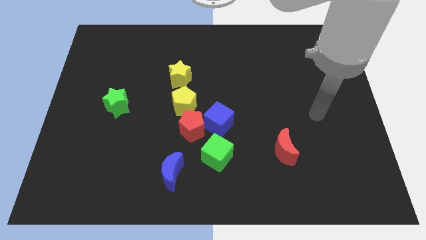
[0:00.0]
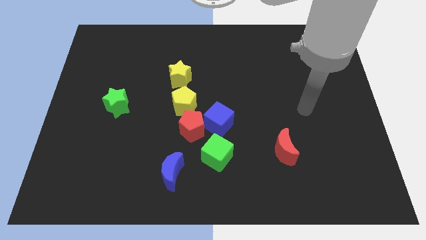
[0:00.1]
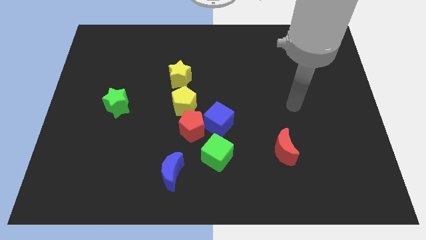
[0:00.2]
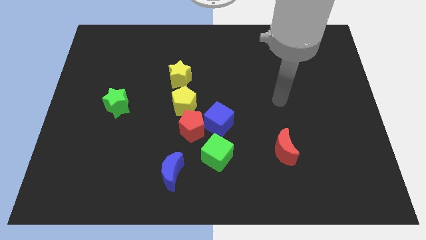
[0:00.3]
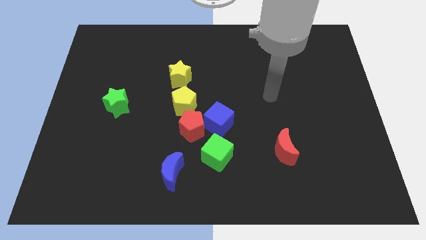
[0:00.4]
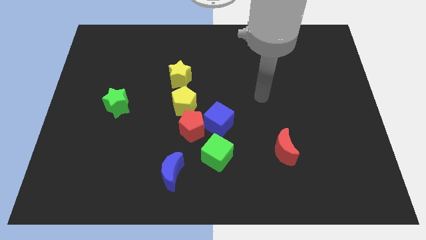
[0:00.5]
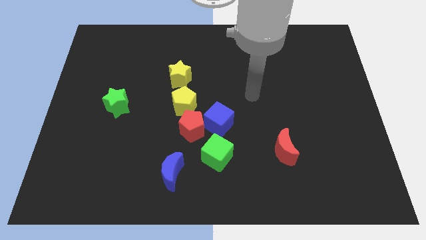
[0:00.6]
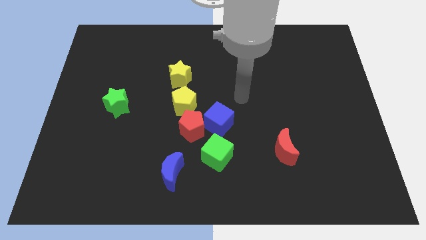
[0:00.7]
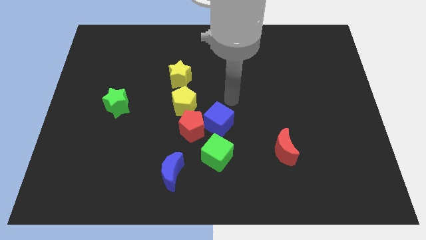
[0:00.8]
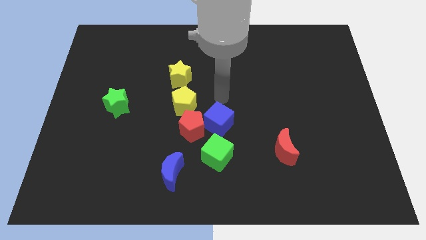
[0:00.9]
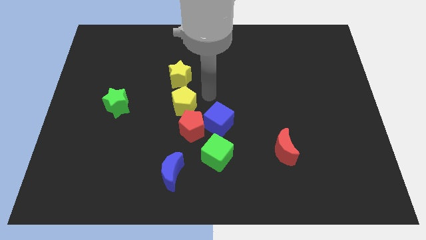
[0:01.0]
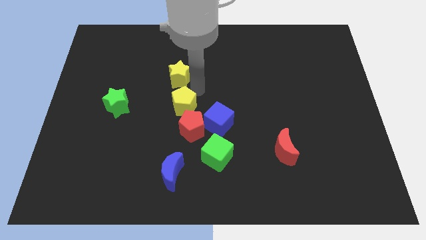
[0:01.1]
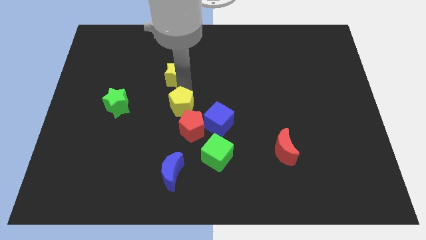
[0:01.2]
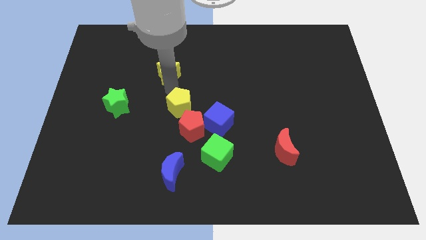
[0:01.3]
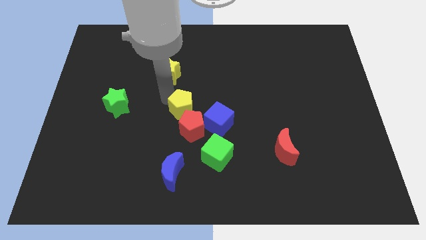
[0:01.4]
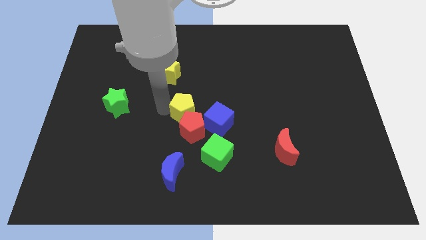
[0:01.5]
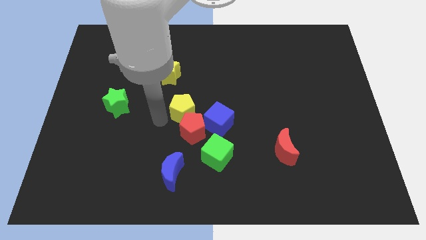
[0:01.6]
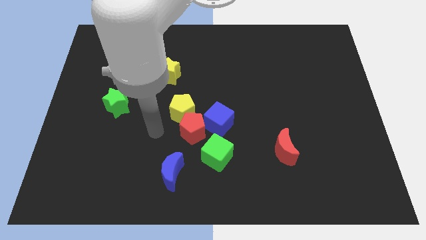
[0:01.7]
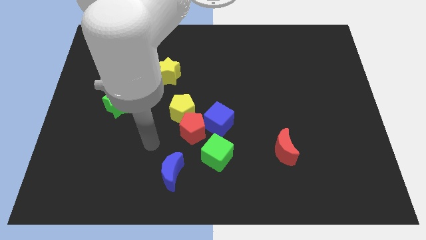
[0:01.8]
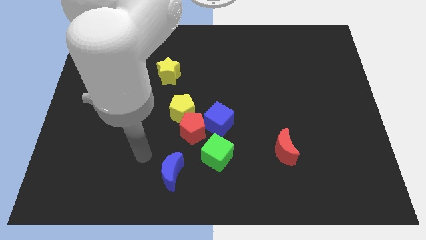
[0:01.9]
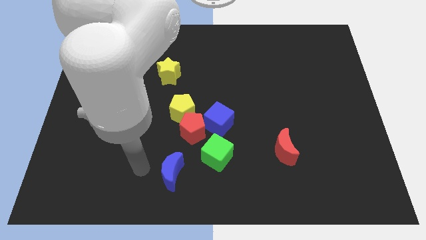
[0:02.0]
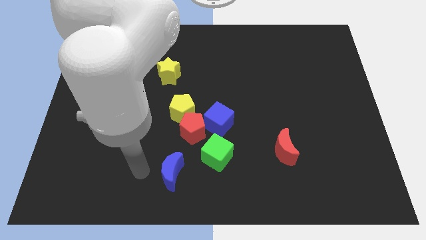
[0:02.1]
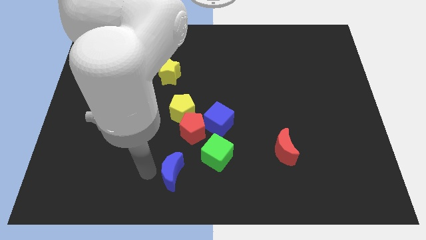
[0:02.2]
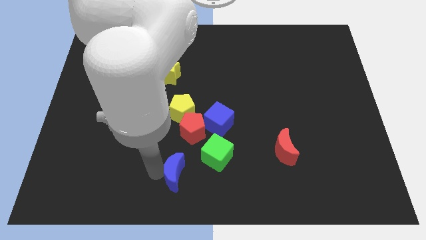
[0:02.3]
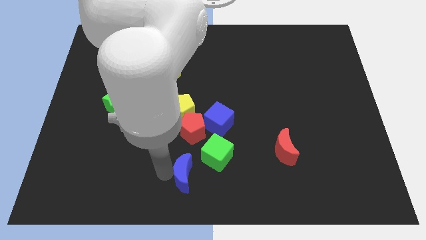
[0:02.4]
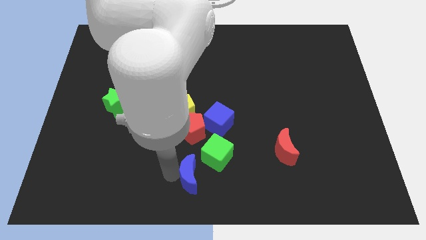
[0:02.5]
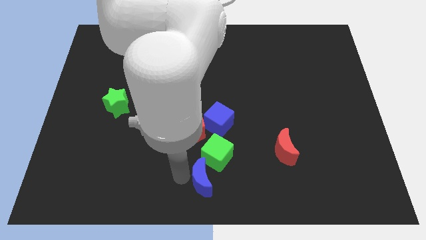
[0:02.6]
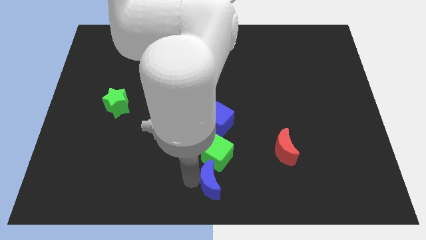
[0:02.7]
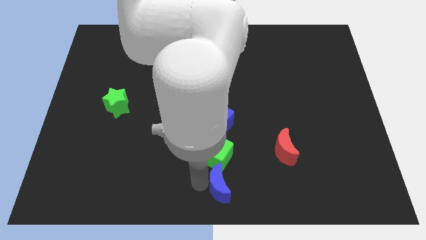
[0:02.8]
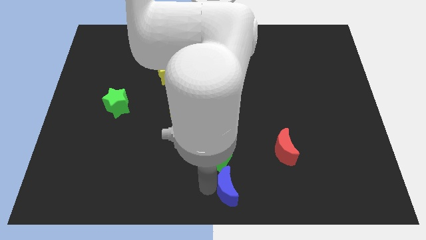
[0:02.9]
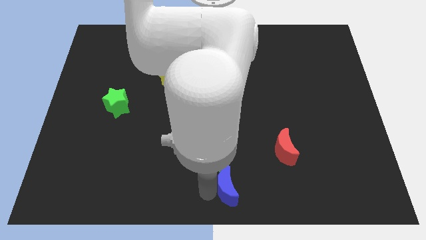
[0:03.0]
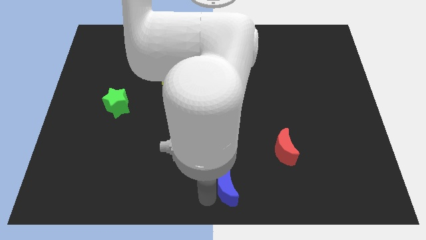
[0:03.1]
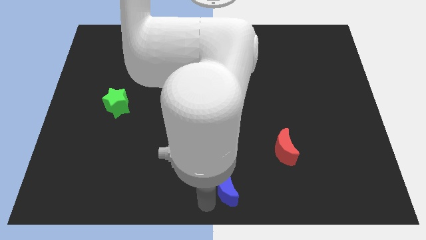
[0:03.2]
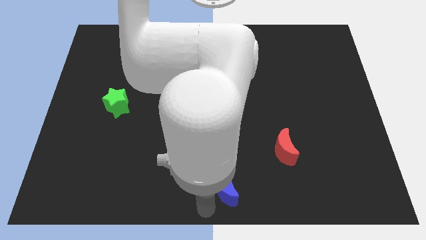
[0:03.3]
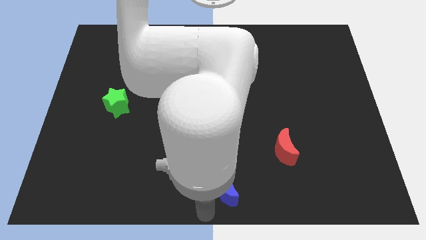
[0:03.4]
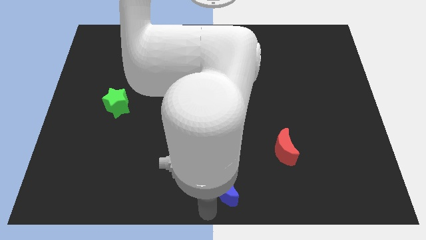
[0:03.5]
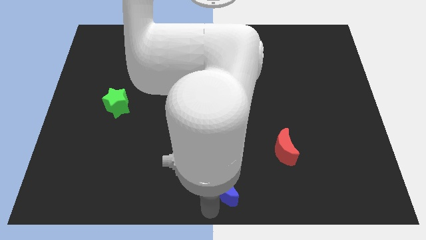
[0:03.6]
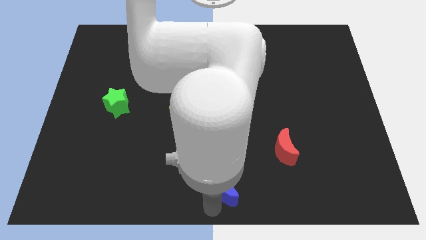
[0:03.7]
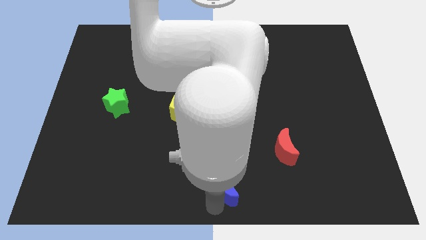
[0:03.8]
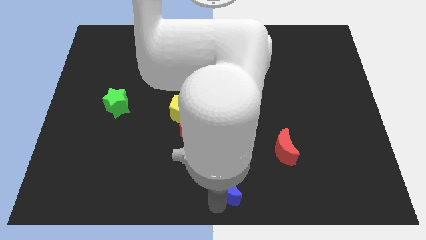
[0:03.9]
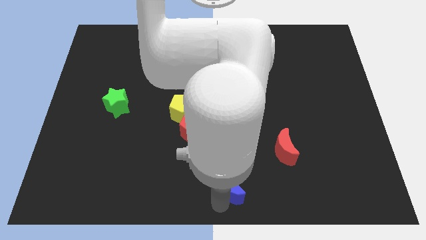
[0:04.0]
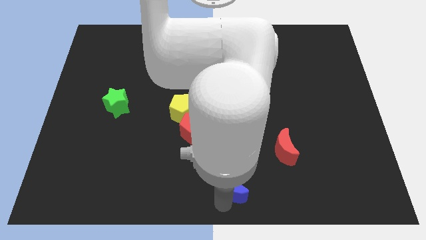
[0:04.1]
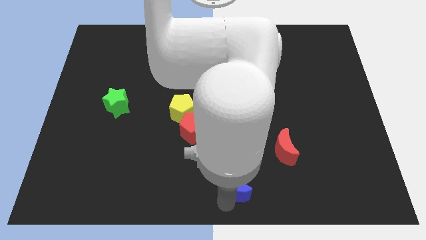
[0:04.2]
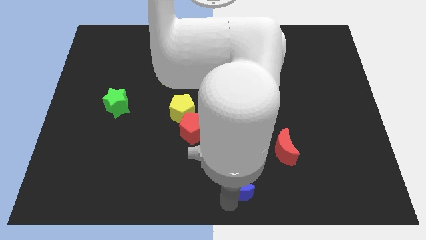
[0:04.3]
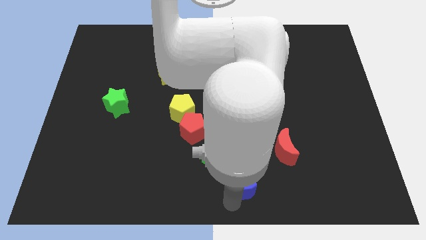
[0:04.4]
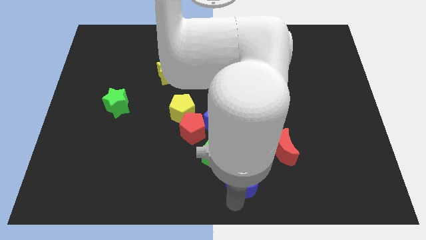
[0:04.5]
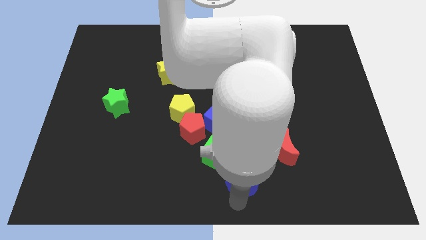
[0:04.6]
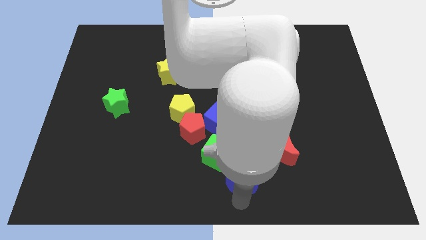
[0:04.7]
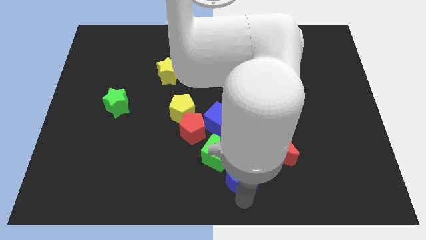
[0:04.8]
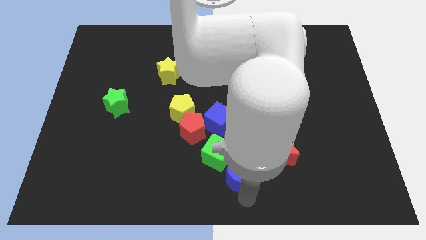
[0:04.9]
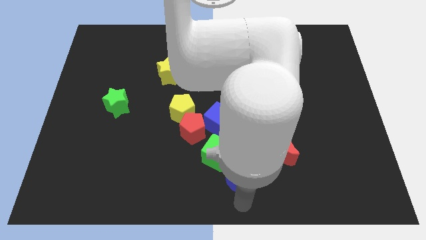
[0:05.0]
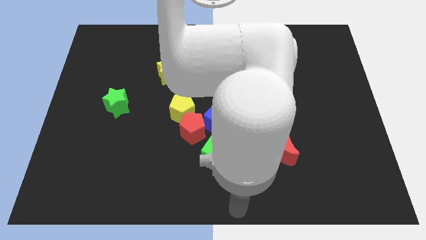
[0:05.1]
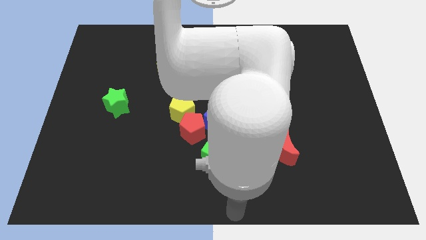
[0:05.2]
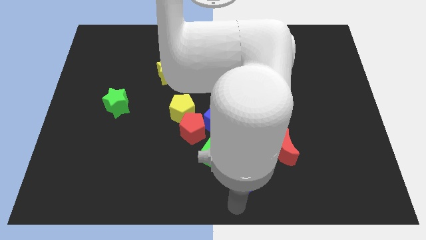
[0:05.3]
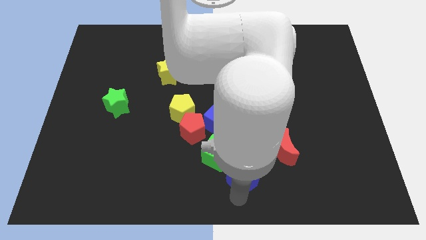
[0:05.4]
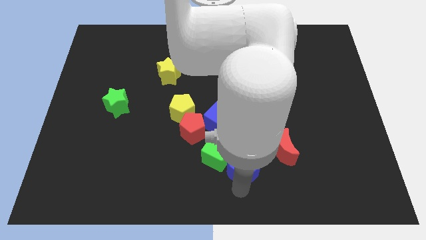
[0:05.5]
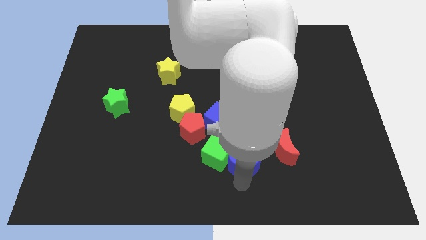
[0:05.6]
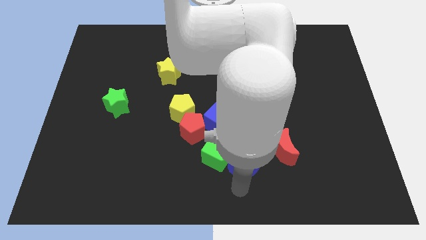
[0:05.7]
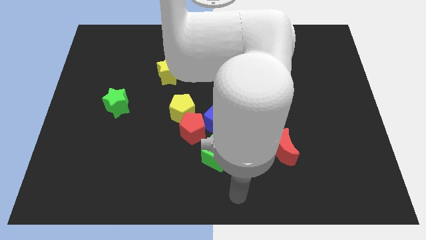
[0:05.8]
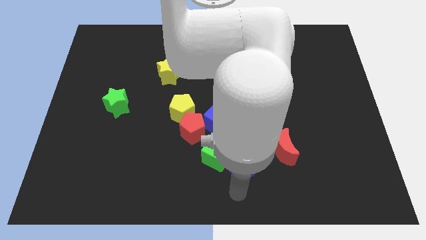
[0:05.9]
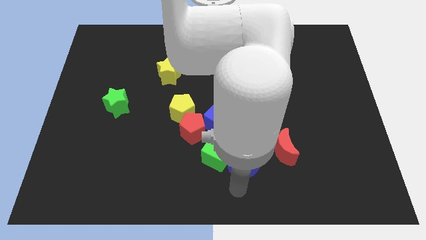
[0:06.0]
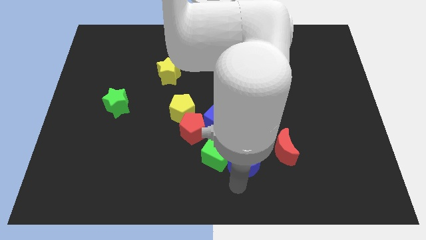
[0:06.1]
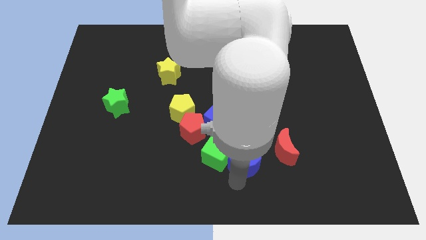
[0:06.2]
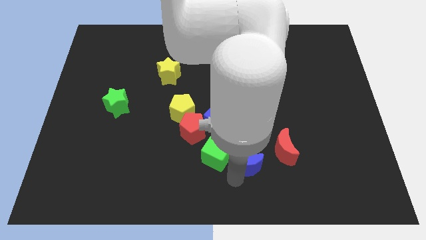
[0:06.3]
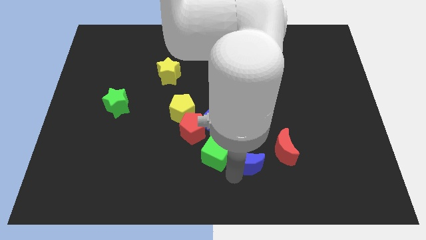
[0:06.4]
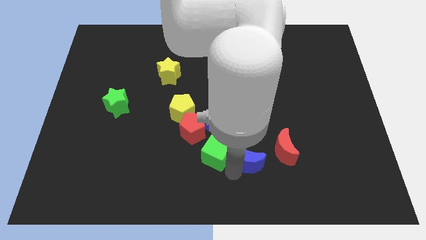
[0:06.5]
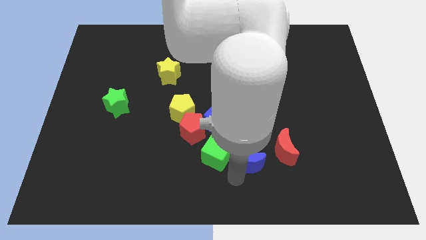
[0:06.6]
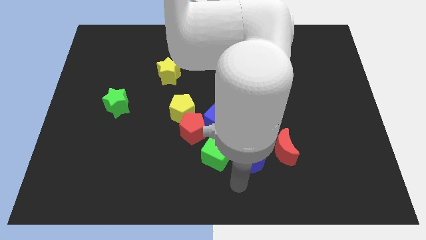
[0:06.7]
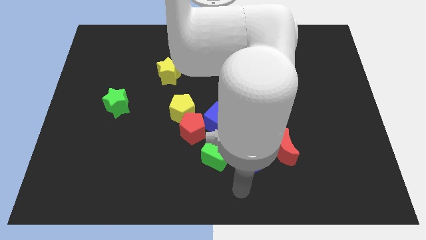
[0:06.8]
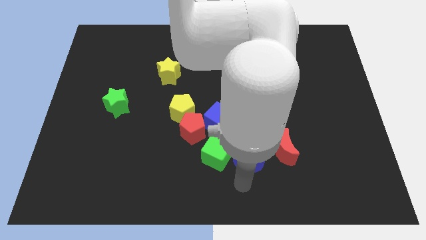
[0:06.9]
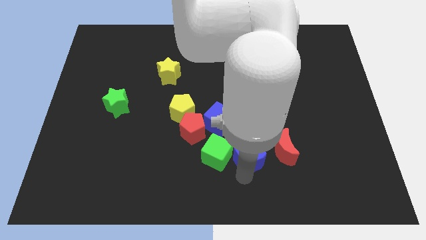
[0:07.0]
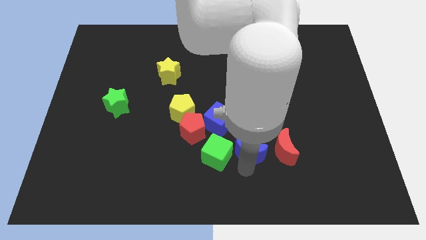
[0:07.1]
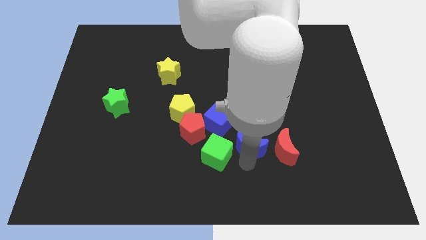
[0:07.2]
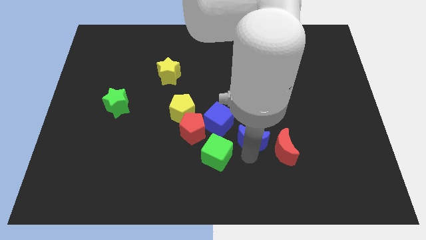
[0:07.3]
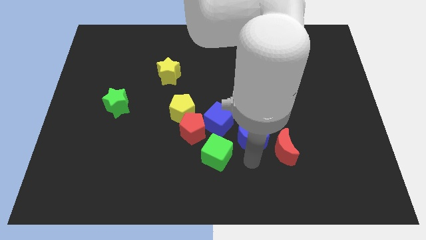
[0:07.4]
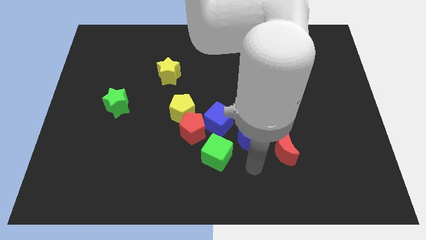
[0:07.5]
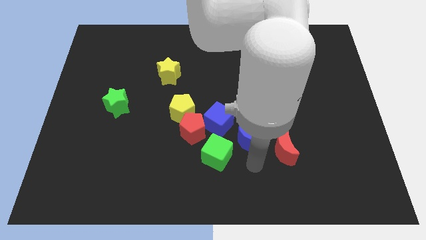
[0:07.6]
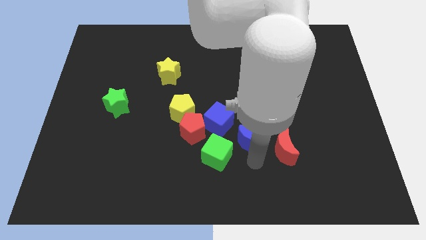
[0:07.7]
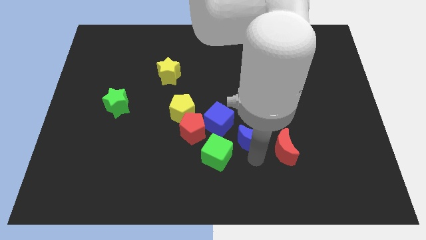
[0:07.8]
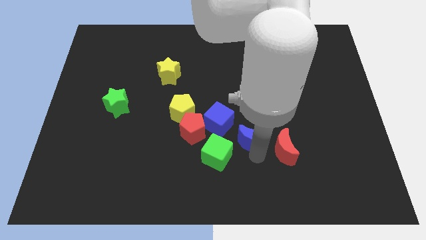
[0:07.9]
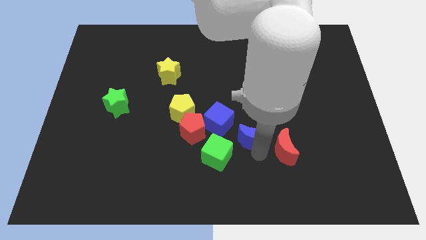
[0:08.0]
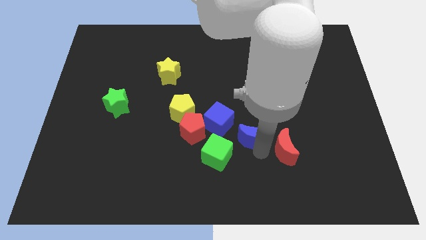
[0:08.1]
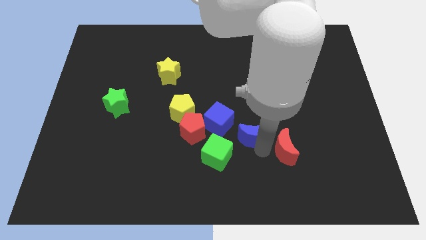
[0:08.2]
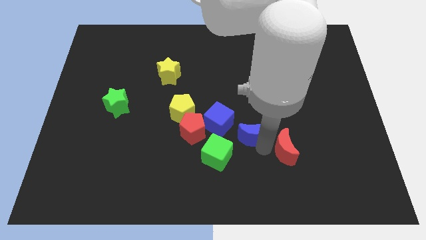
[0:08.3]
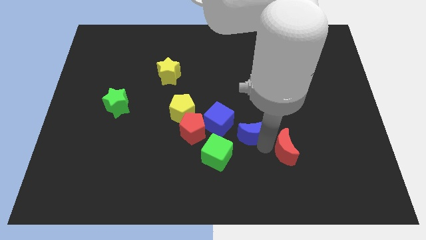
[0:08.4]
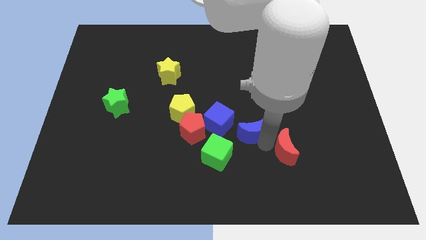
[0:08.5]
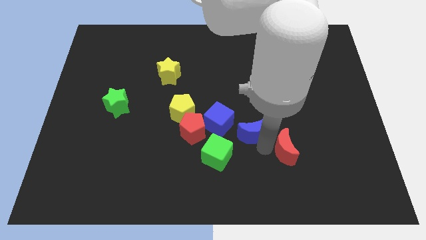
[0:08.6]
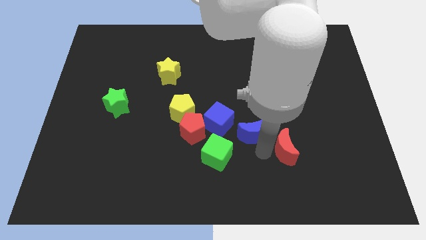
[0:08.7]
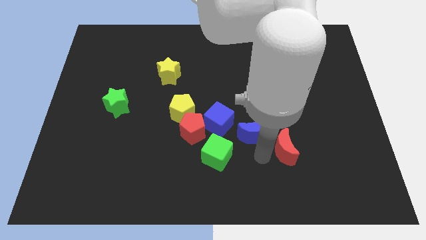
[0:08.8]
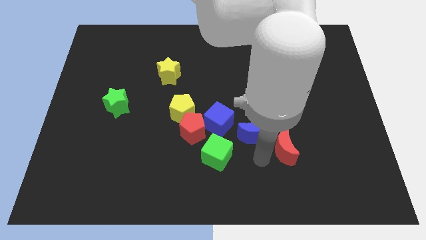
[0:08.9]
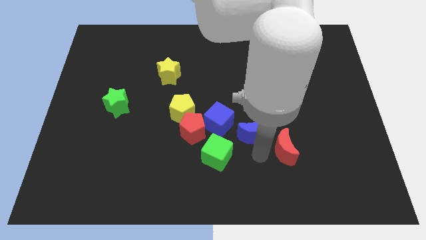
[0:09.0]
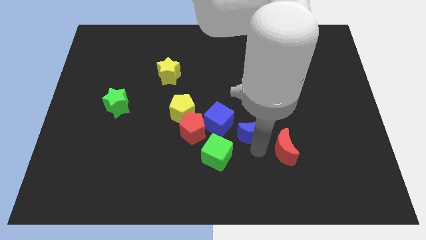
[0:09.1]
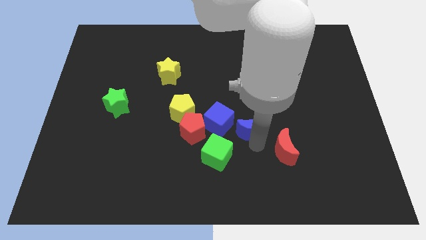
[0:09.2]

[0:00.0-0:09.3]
put the blue moon to the center
